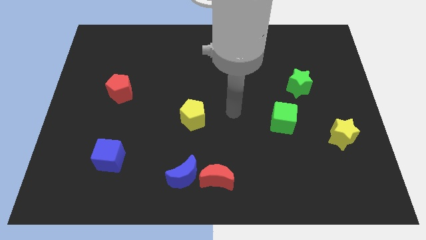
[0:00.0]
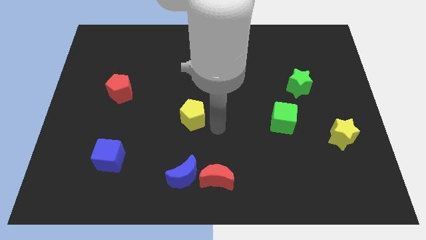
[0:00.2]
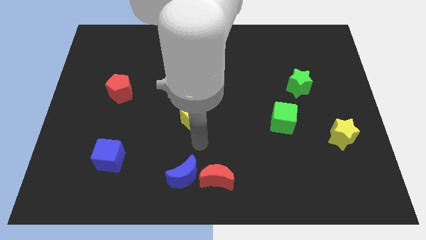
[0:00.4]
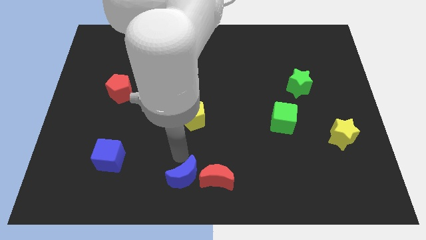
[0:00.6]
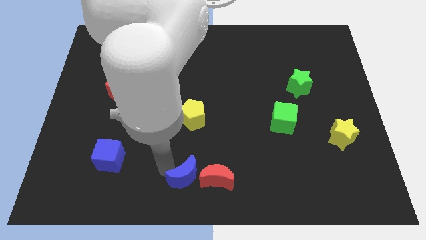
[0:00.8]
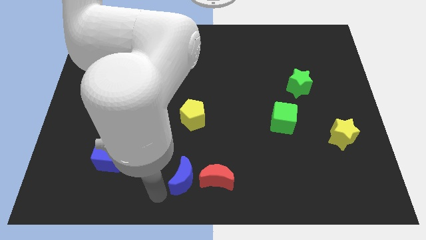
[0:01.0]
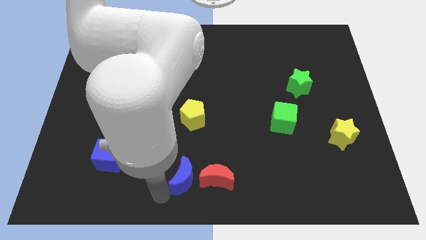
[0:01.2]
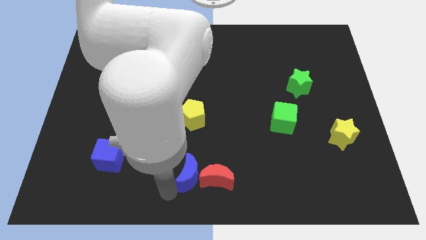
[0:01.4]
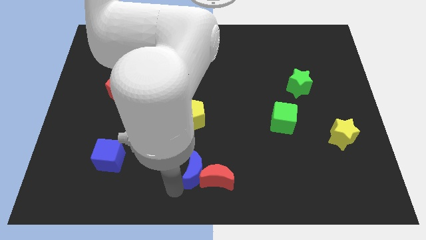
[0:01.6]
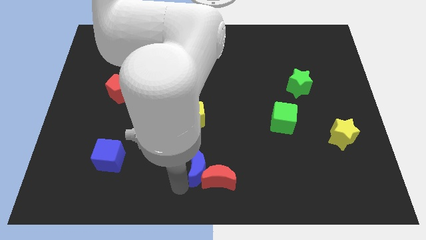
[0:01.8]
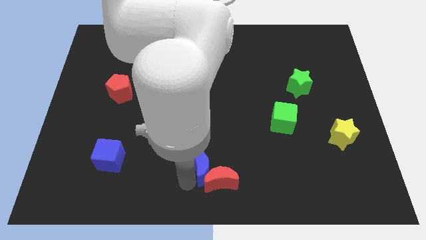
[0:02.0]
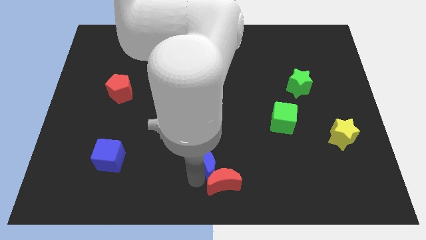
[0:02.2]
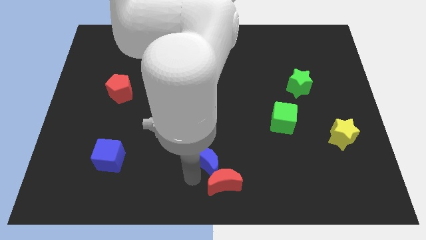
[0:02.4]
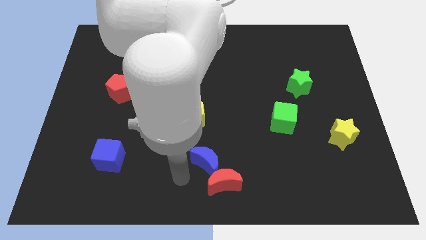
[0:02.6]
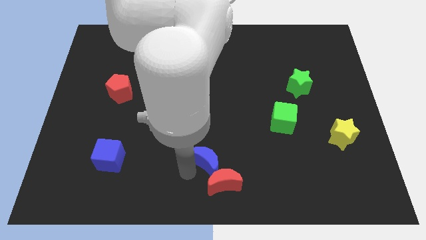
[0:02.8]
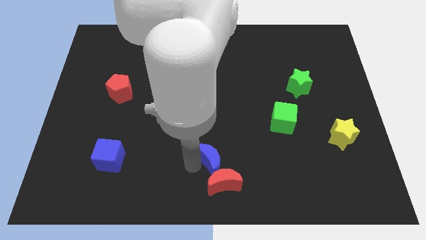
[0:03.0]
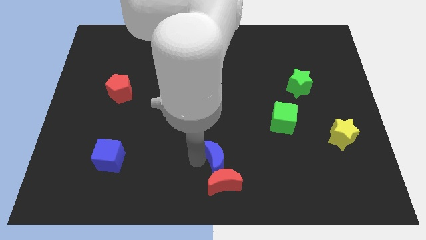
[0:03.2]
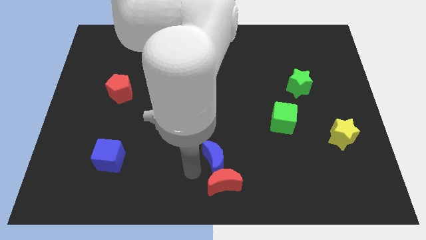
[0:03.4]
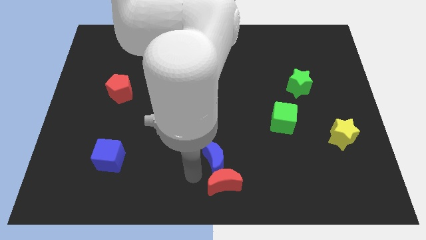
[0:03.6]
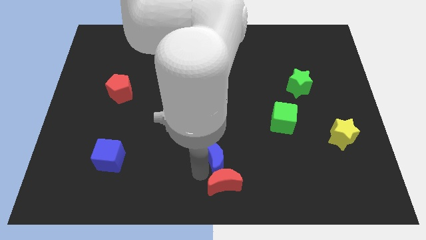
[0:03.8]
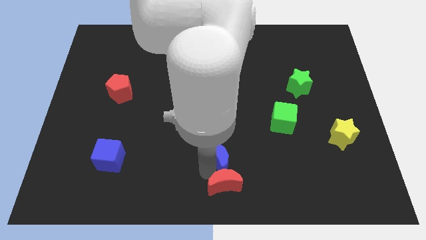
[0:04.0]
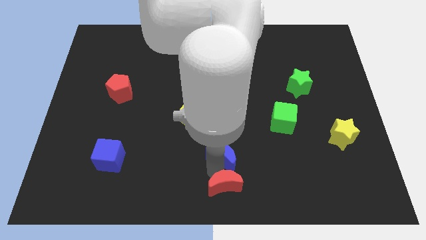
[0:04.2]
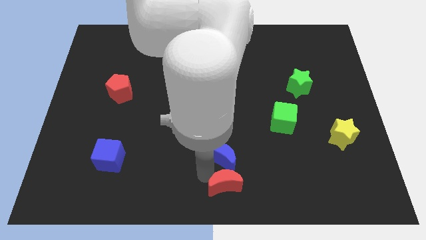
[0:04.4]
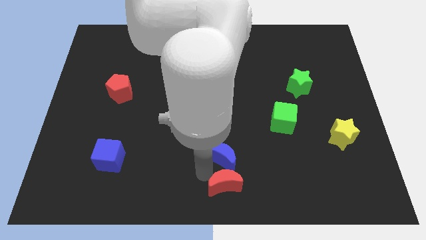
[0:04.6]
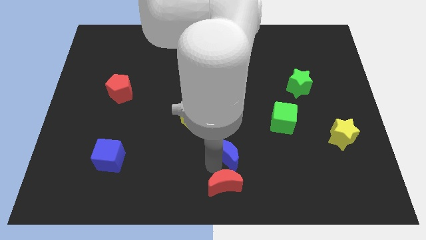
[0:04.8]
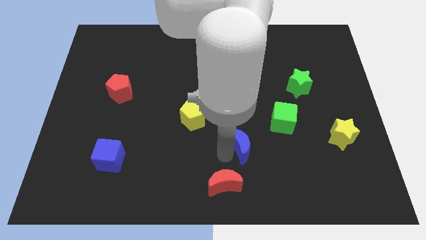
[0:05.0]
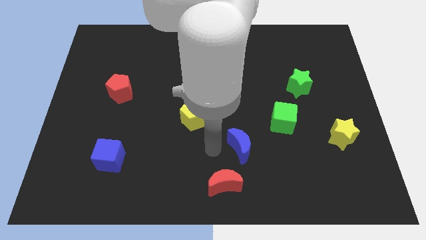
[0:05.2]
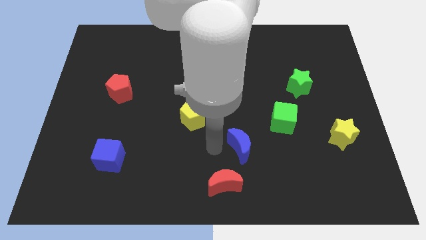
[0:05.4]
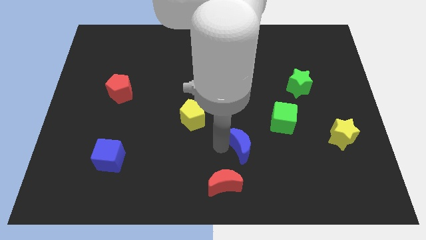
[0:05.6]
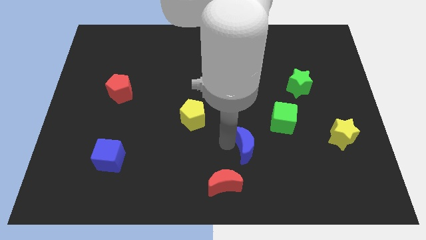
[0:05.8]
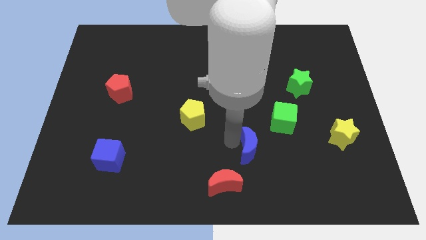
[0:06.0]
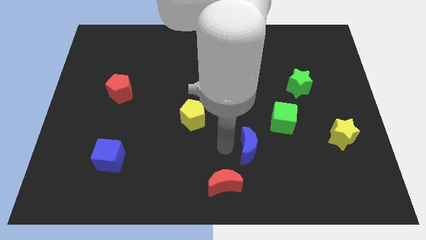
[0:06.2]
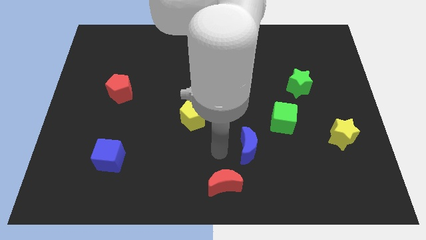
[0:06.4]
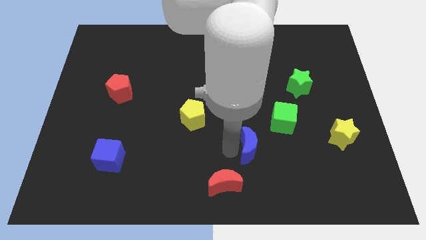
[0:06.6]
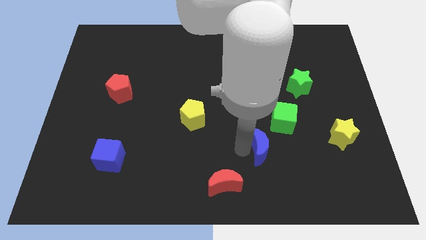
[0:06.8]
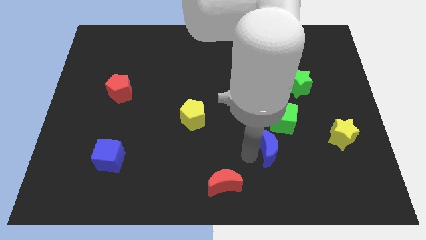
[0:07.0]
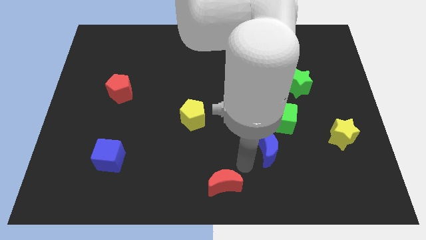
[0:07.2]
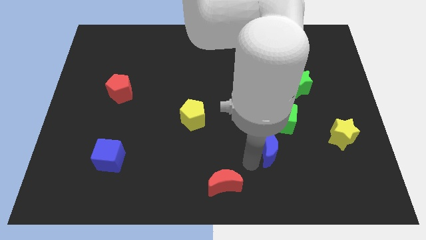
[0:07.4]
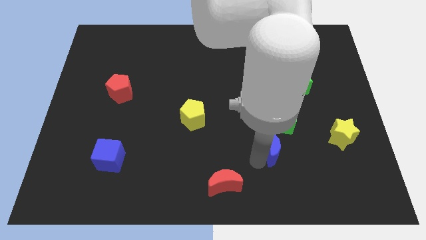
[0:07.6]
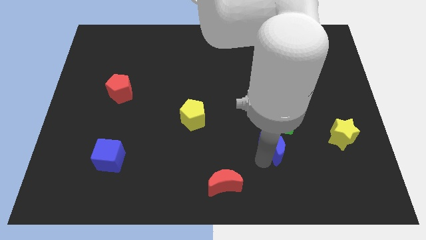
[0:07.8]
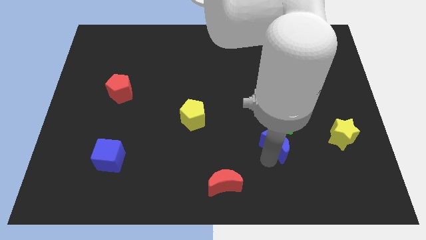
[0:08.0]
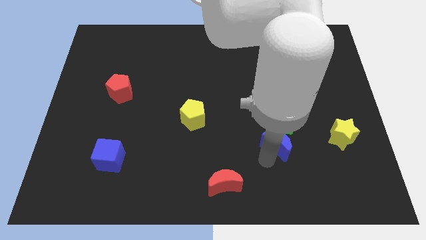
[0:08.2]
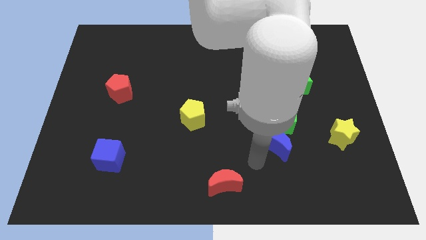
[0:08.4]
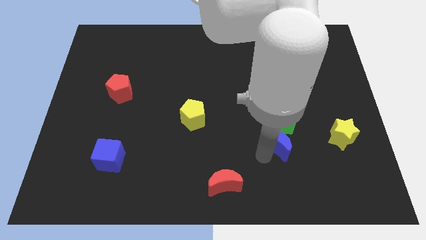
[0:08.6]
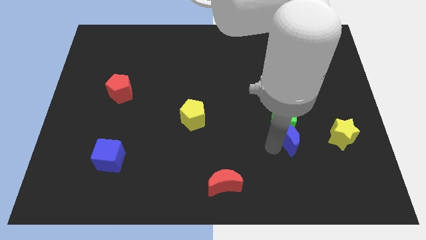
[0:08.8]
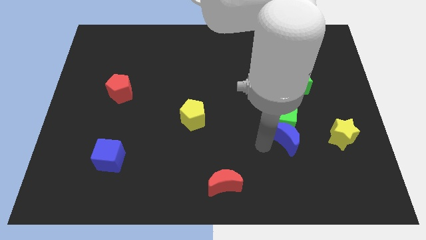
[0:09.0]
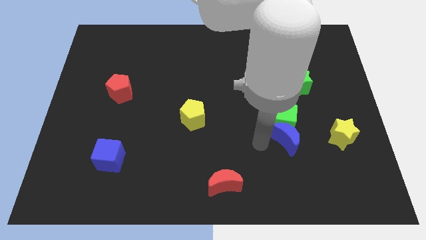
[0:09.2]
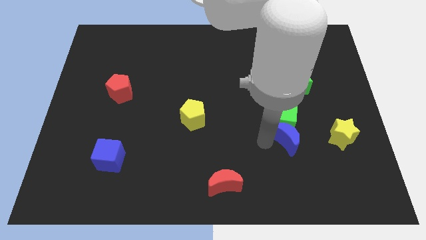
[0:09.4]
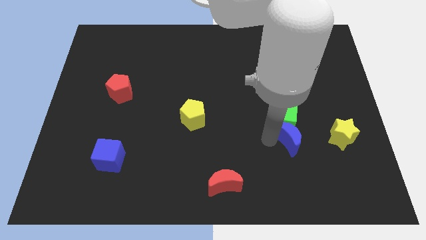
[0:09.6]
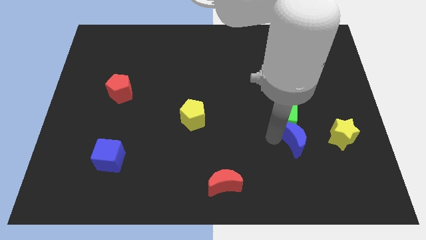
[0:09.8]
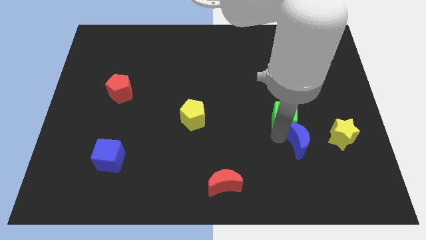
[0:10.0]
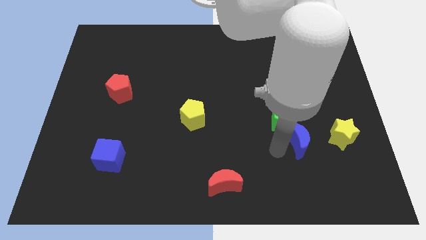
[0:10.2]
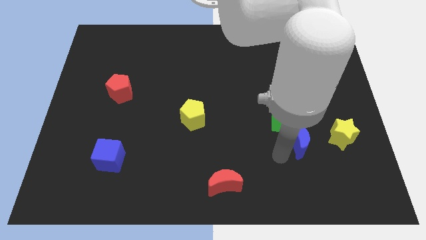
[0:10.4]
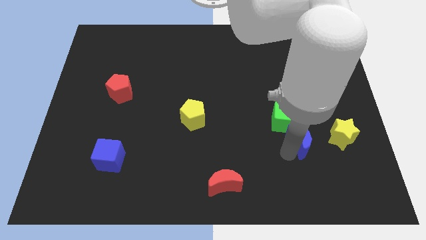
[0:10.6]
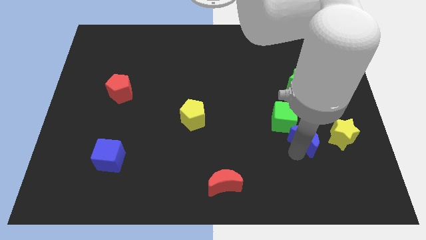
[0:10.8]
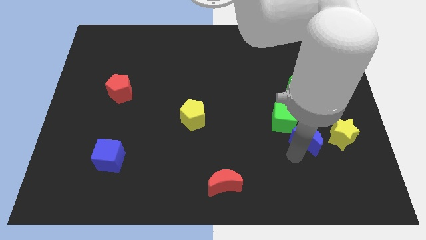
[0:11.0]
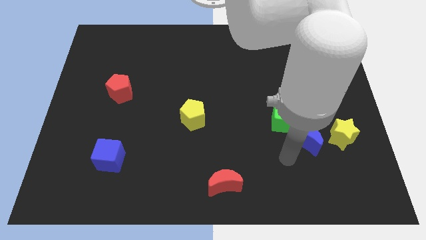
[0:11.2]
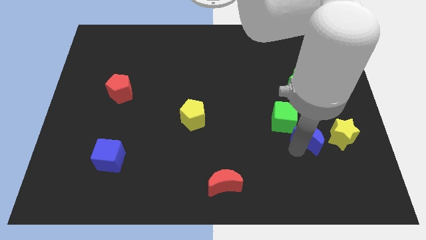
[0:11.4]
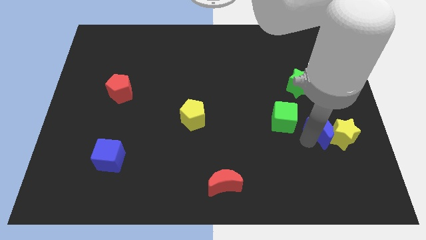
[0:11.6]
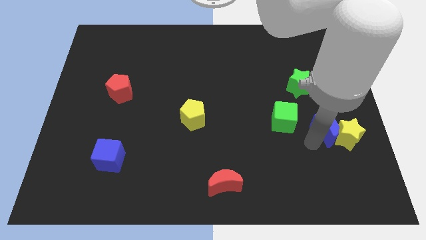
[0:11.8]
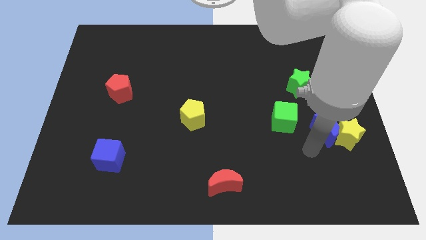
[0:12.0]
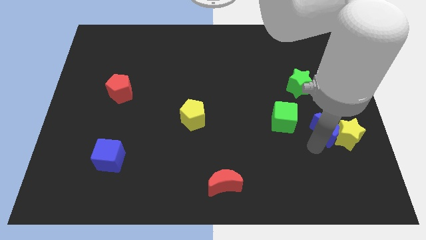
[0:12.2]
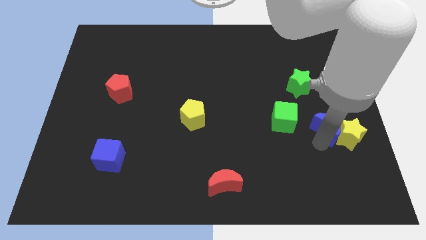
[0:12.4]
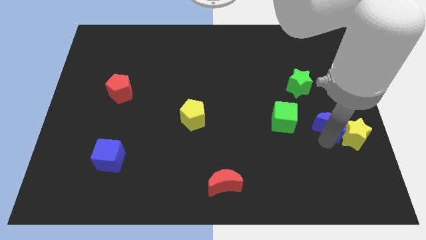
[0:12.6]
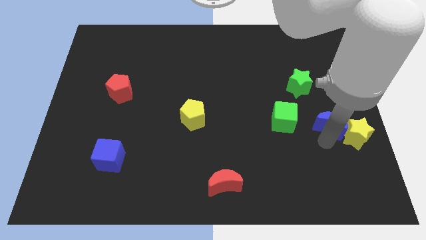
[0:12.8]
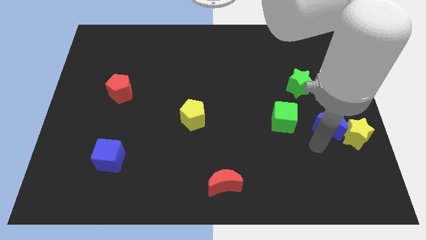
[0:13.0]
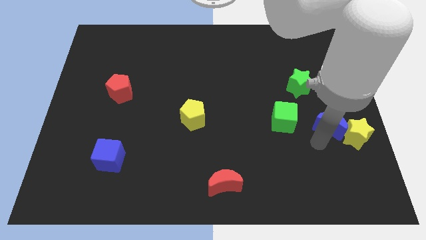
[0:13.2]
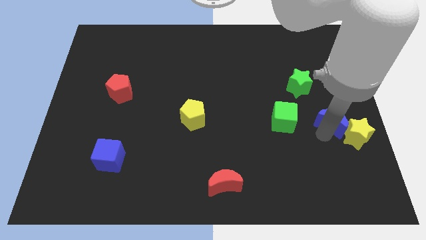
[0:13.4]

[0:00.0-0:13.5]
move the blue moon to the right side
